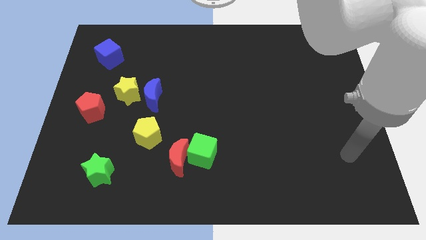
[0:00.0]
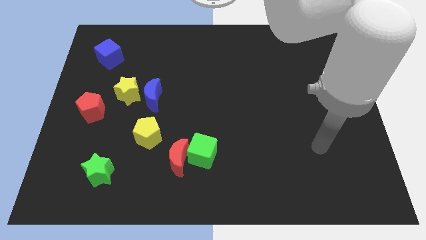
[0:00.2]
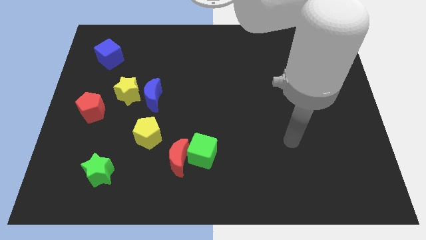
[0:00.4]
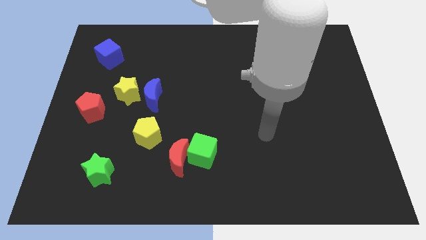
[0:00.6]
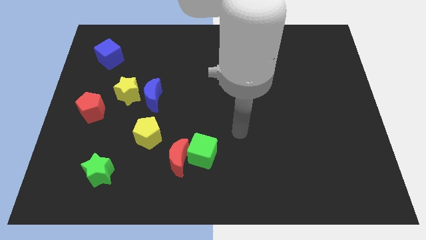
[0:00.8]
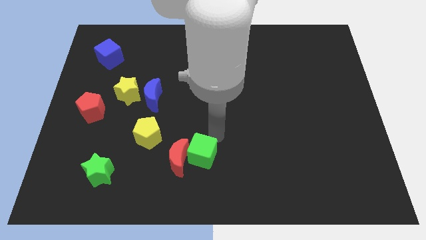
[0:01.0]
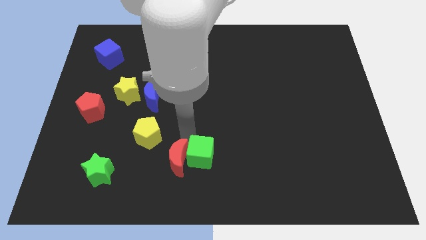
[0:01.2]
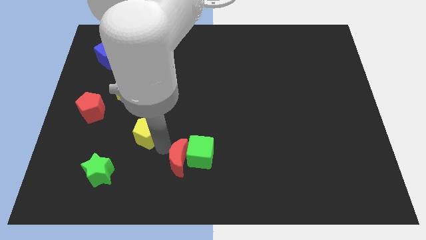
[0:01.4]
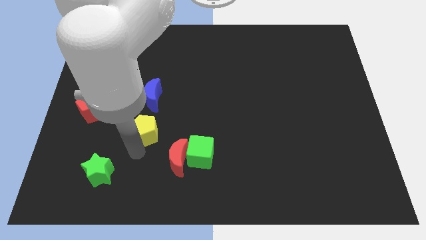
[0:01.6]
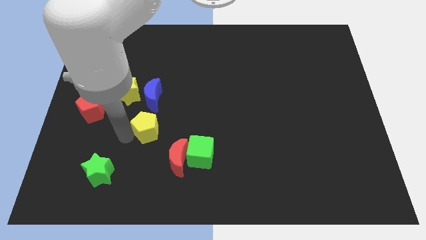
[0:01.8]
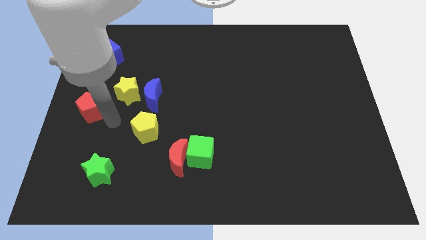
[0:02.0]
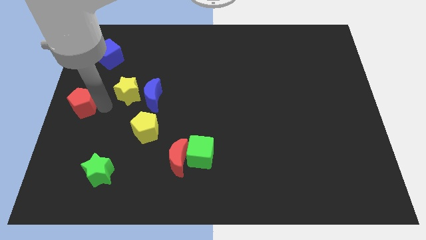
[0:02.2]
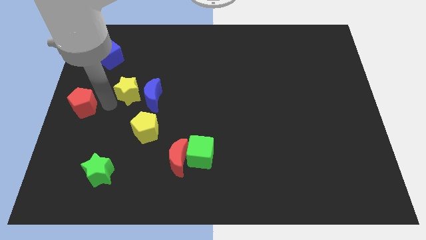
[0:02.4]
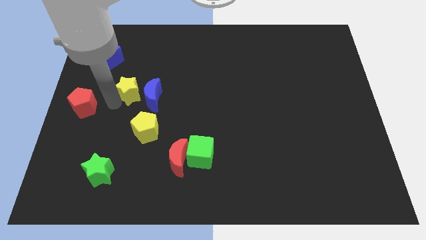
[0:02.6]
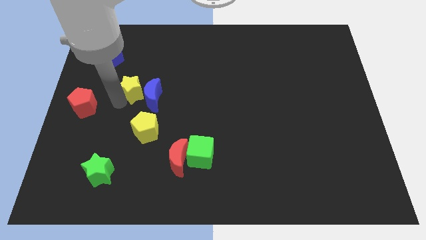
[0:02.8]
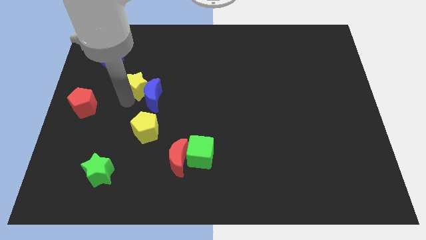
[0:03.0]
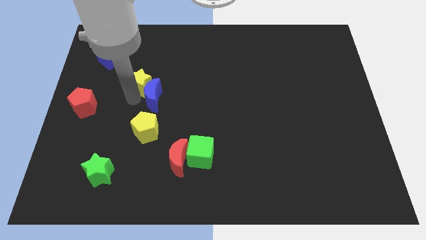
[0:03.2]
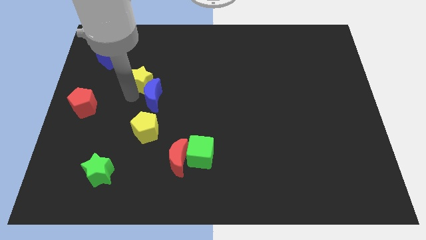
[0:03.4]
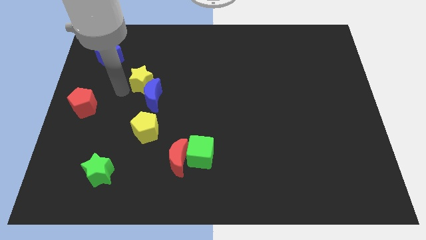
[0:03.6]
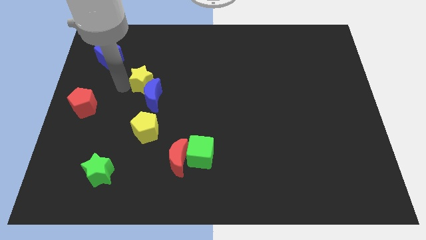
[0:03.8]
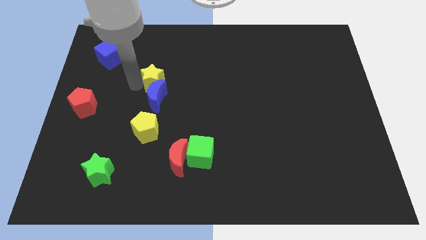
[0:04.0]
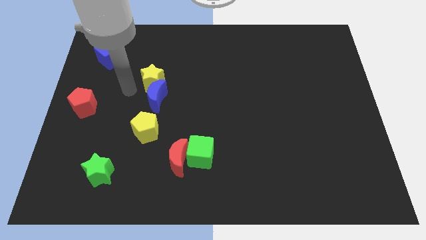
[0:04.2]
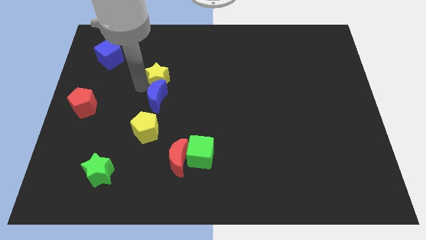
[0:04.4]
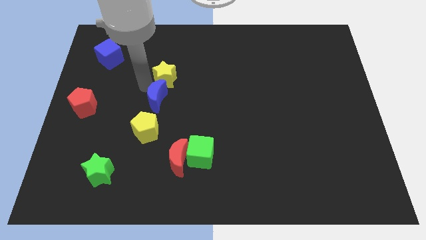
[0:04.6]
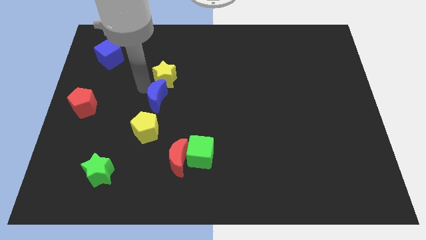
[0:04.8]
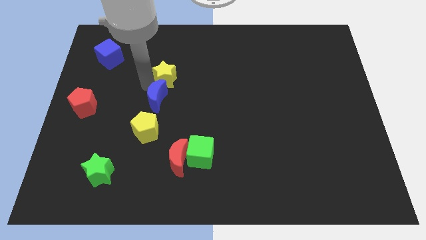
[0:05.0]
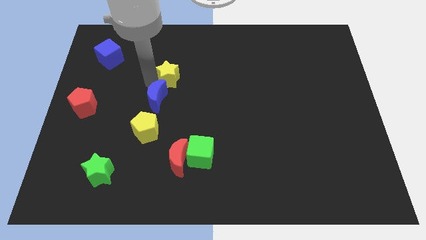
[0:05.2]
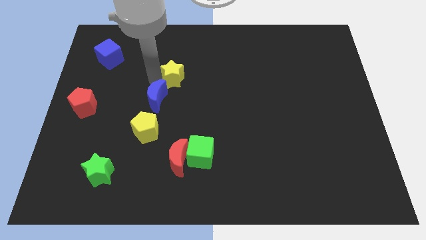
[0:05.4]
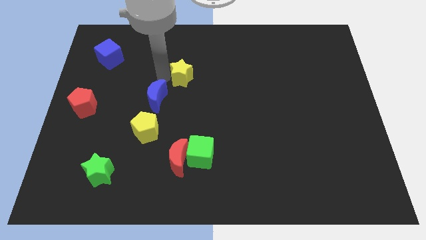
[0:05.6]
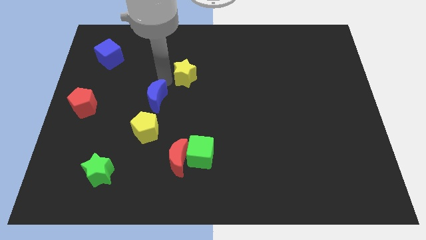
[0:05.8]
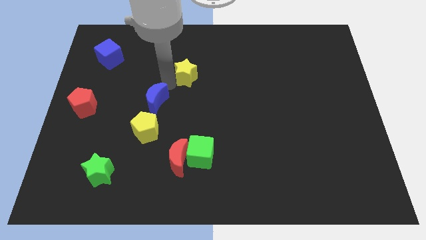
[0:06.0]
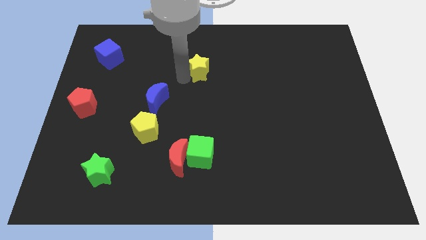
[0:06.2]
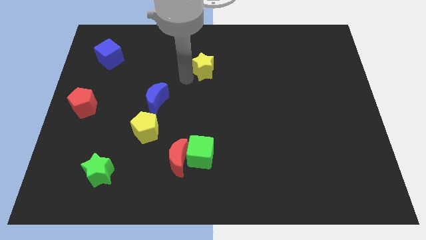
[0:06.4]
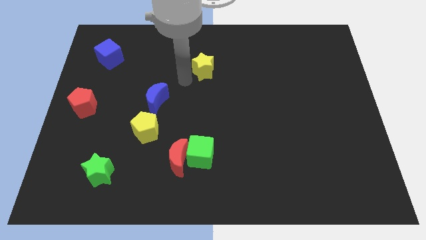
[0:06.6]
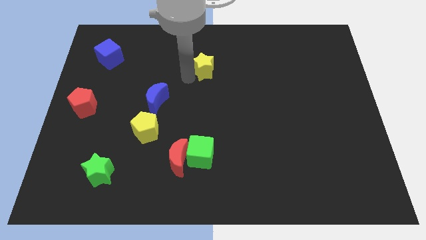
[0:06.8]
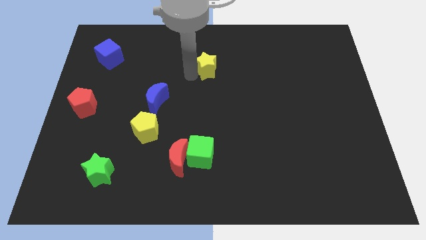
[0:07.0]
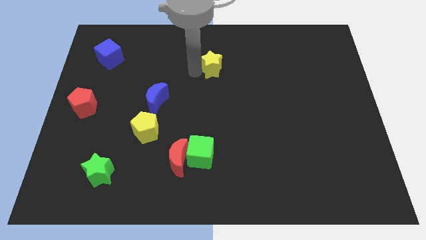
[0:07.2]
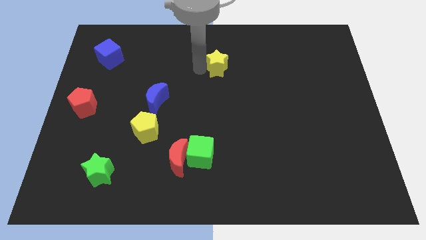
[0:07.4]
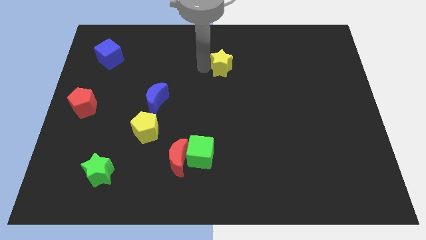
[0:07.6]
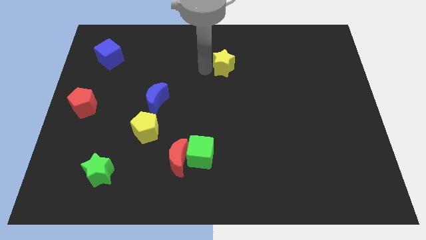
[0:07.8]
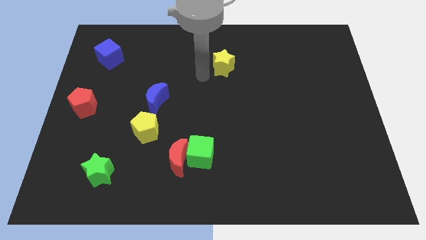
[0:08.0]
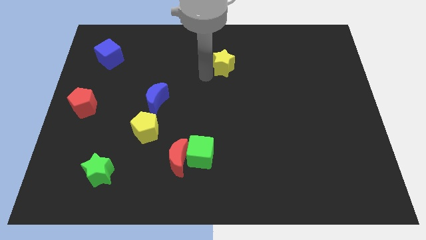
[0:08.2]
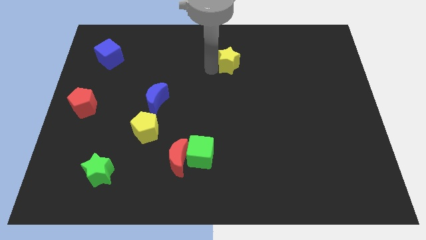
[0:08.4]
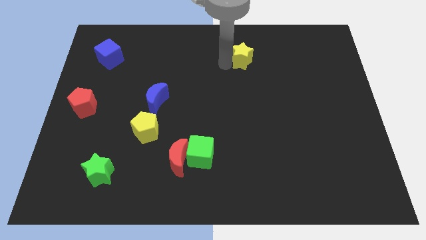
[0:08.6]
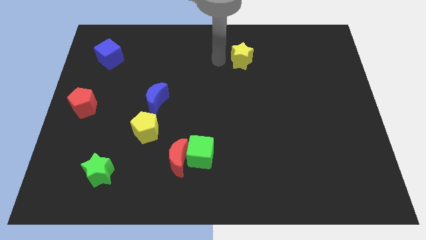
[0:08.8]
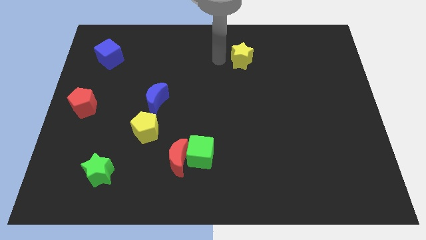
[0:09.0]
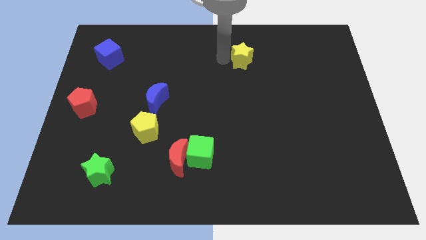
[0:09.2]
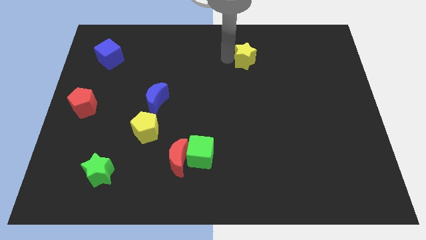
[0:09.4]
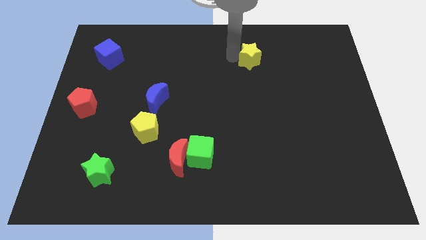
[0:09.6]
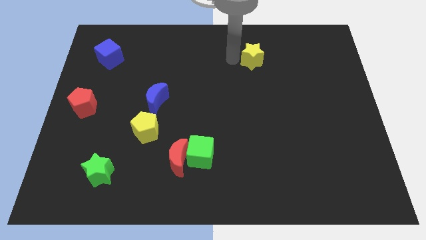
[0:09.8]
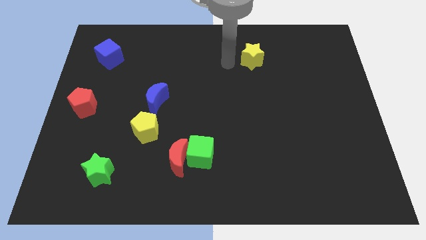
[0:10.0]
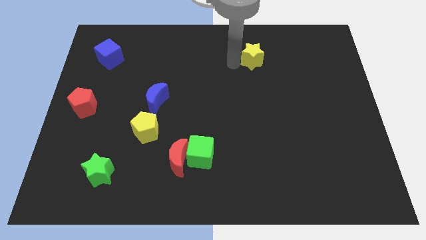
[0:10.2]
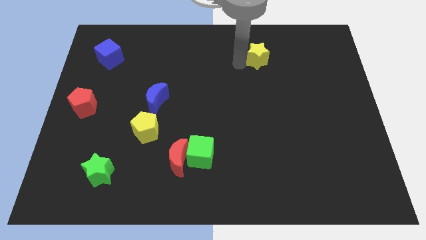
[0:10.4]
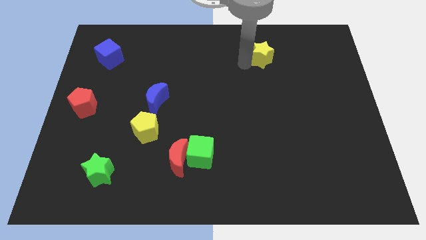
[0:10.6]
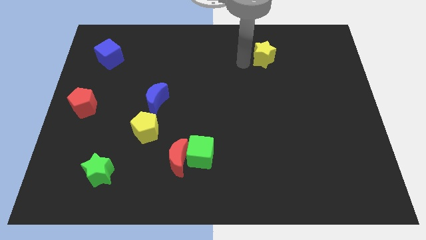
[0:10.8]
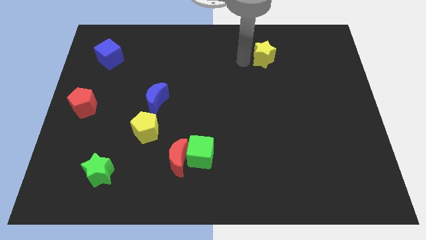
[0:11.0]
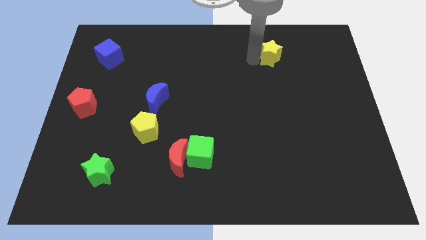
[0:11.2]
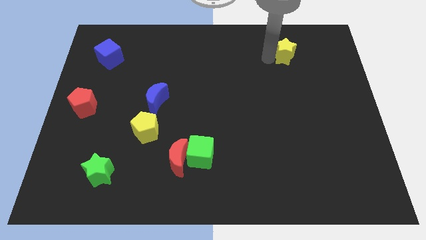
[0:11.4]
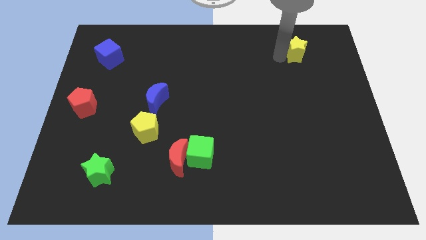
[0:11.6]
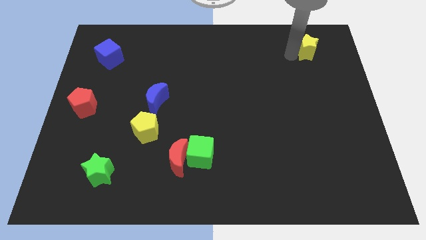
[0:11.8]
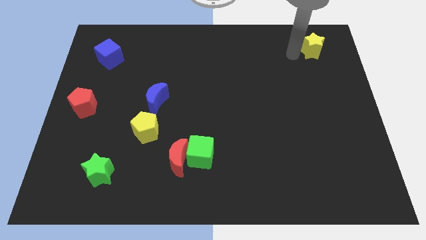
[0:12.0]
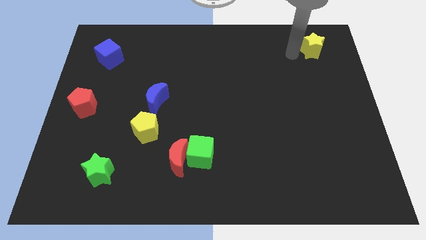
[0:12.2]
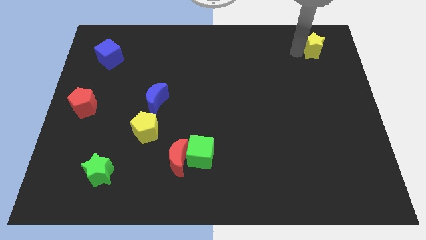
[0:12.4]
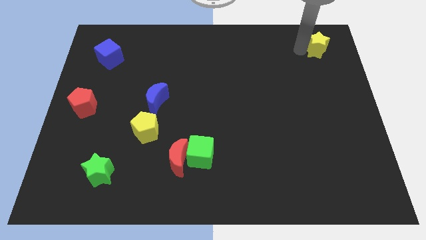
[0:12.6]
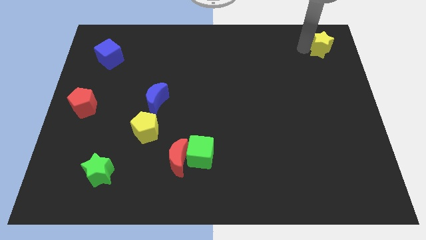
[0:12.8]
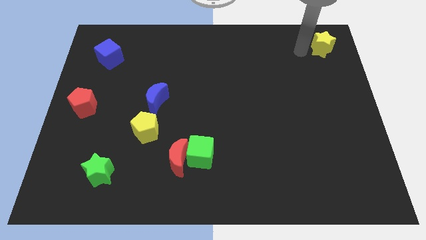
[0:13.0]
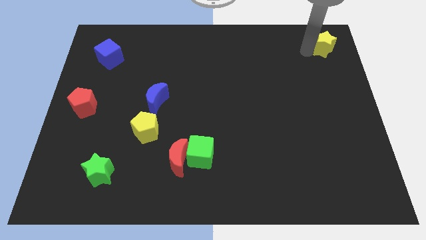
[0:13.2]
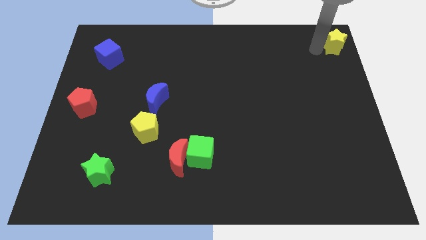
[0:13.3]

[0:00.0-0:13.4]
push the yellow star to the top right of the board
